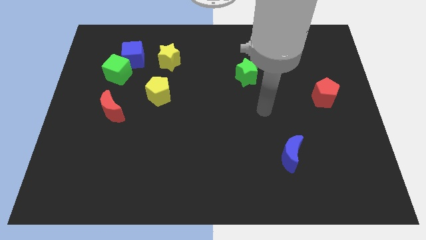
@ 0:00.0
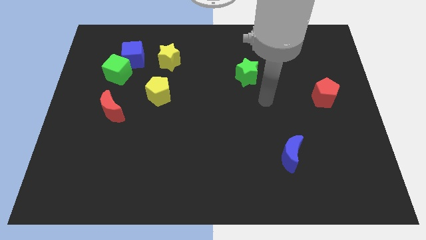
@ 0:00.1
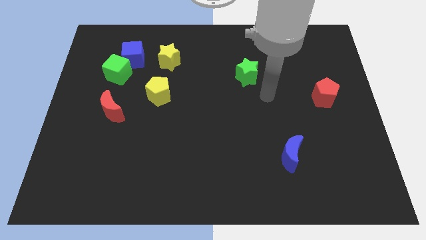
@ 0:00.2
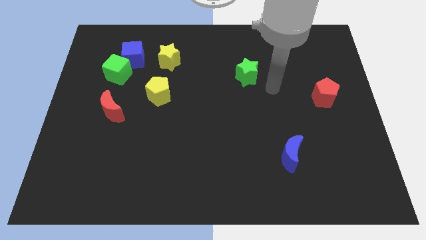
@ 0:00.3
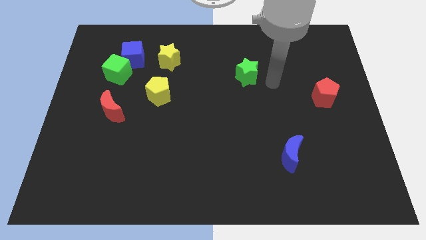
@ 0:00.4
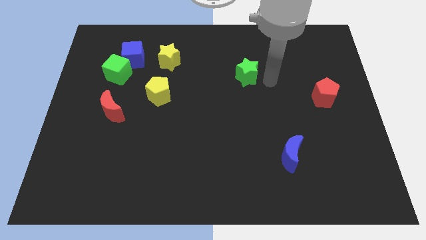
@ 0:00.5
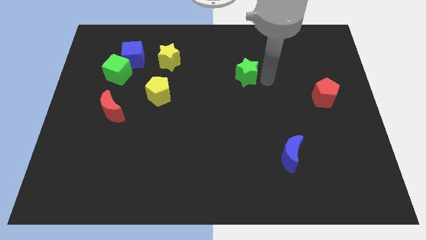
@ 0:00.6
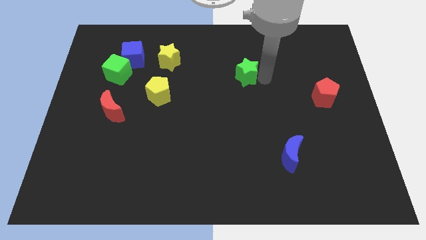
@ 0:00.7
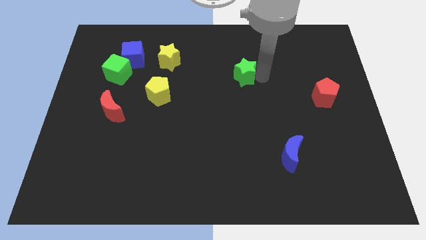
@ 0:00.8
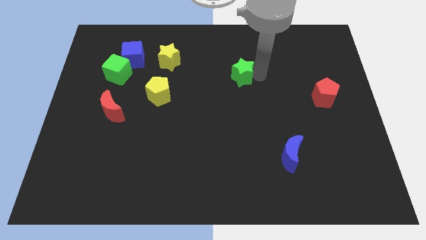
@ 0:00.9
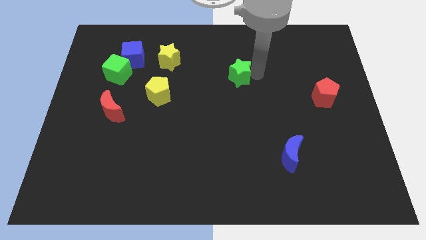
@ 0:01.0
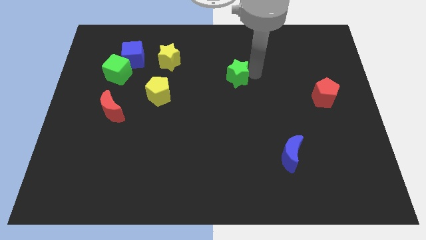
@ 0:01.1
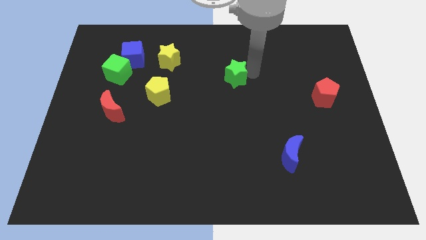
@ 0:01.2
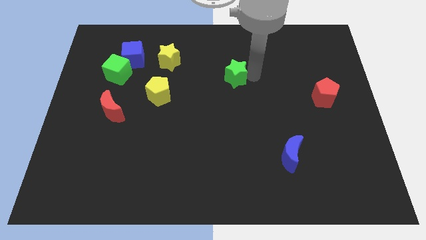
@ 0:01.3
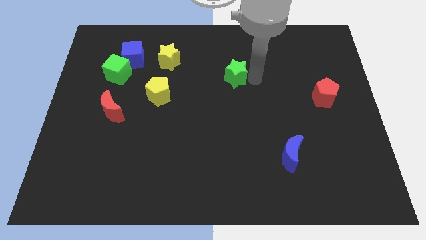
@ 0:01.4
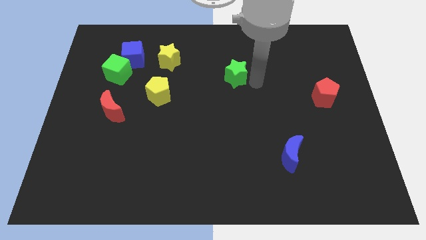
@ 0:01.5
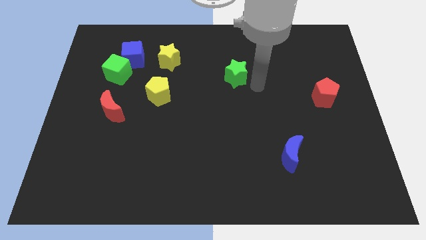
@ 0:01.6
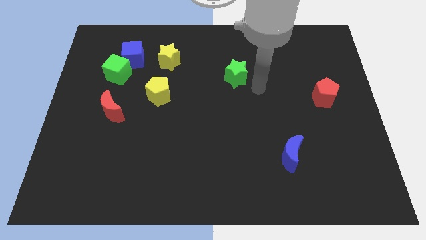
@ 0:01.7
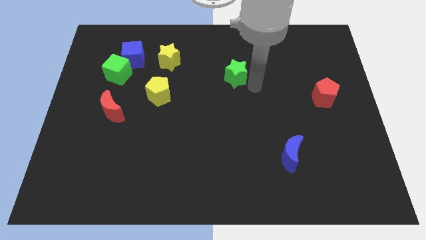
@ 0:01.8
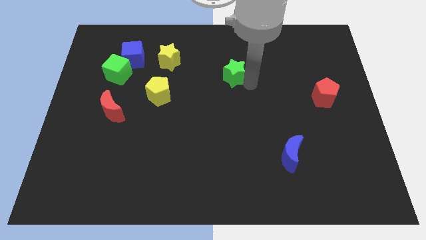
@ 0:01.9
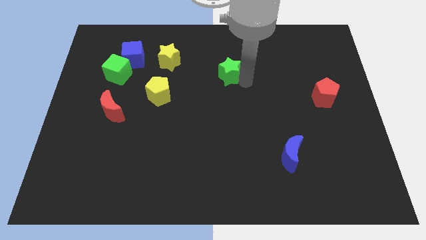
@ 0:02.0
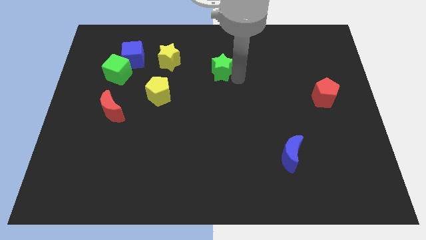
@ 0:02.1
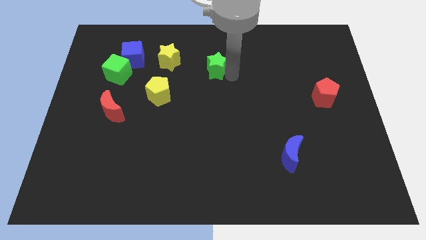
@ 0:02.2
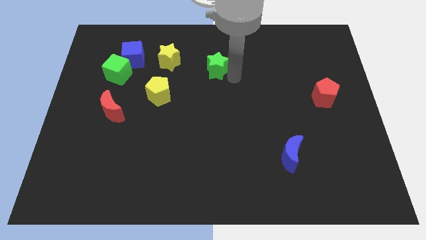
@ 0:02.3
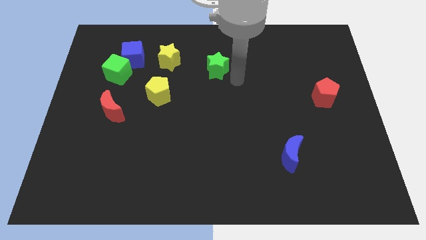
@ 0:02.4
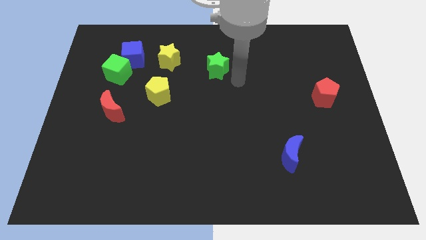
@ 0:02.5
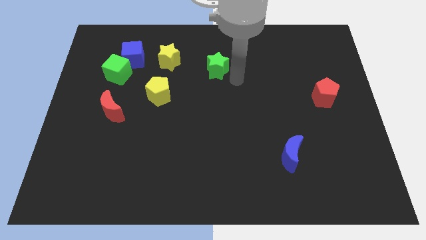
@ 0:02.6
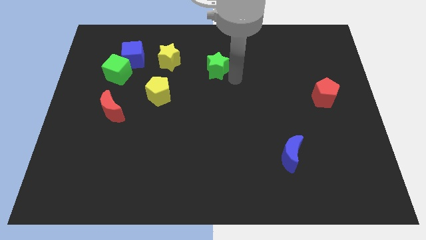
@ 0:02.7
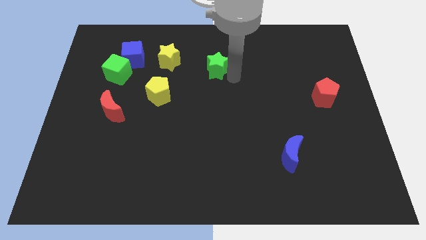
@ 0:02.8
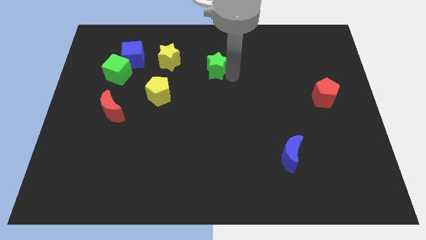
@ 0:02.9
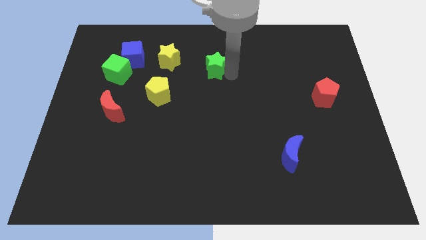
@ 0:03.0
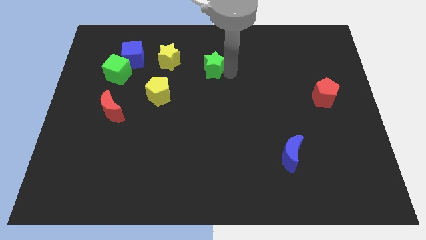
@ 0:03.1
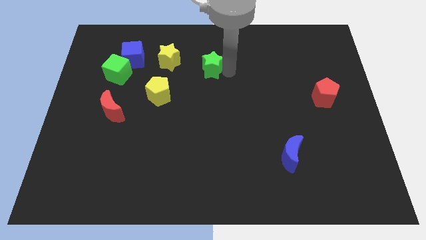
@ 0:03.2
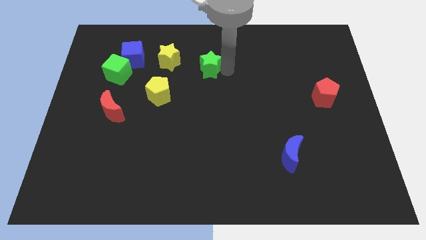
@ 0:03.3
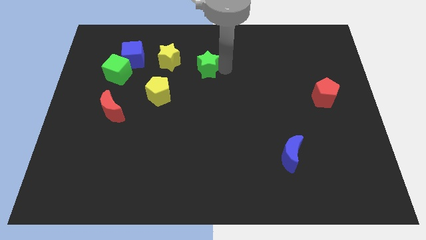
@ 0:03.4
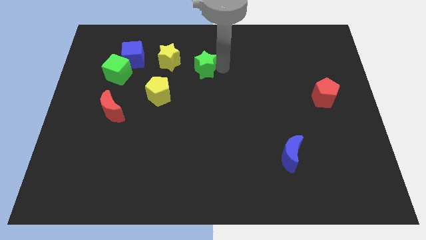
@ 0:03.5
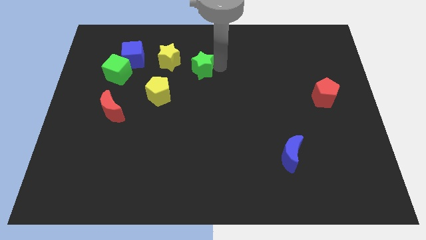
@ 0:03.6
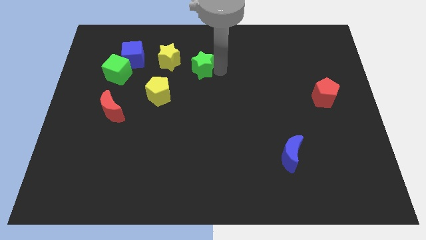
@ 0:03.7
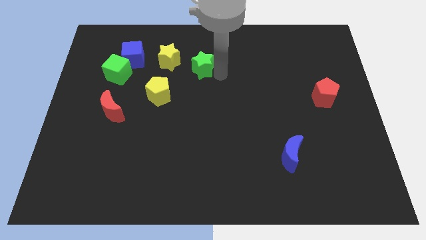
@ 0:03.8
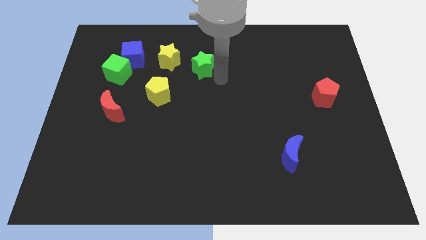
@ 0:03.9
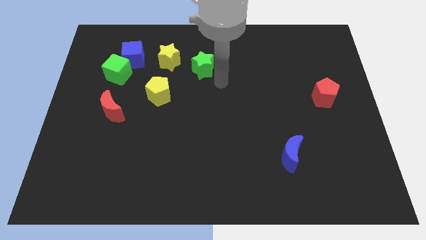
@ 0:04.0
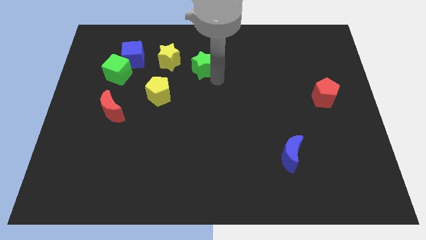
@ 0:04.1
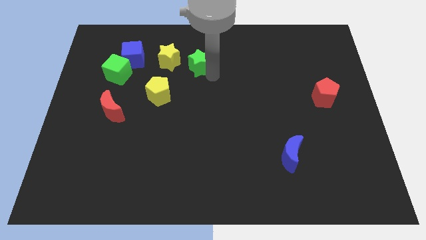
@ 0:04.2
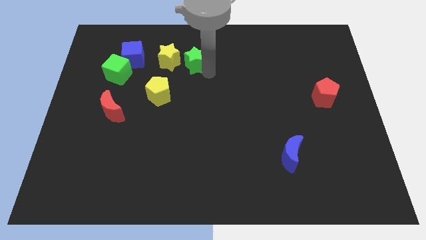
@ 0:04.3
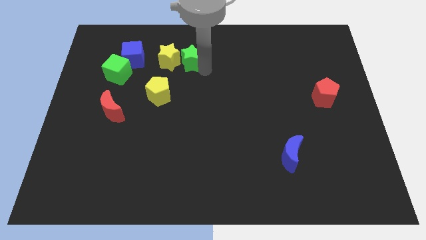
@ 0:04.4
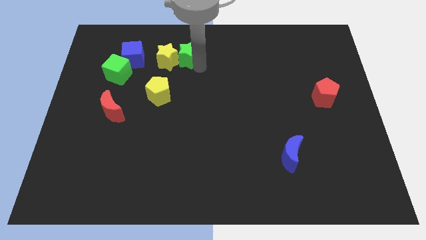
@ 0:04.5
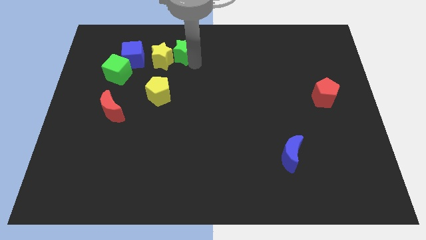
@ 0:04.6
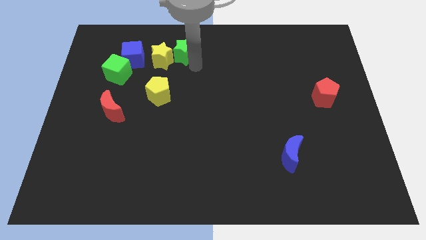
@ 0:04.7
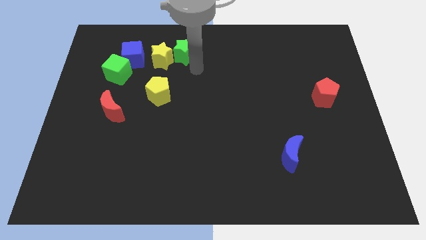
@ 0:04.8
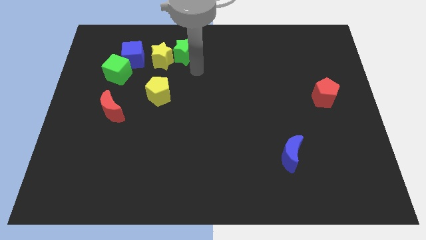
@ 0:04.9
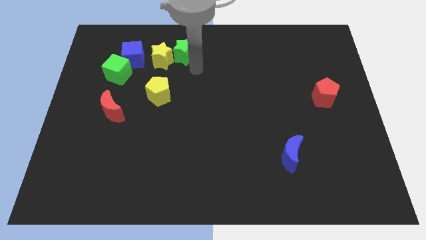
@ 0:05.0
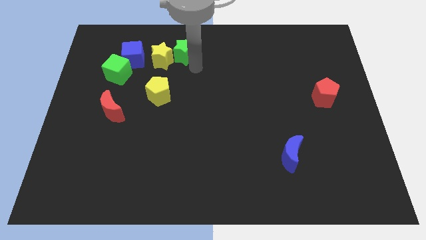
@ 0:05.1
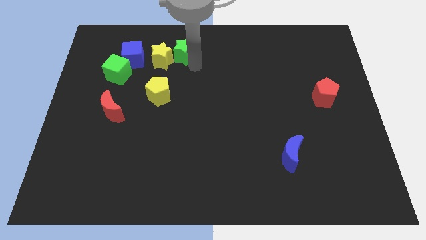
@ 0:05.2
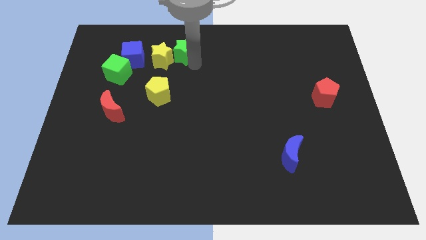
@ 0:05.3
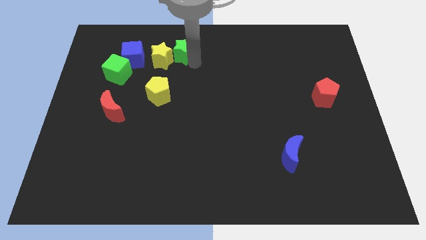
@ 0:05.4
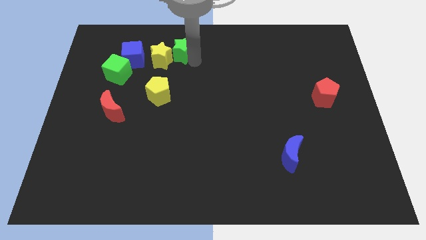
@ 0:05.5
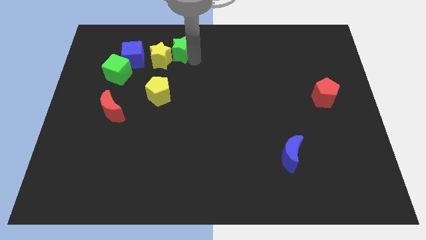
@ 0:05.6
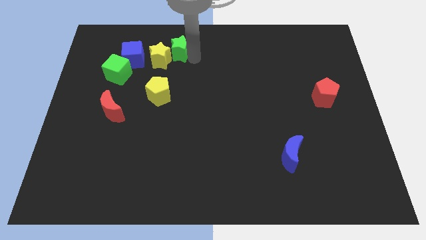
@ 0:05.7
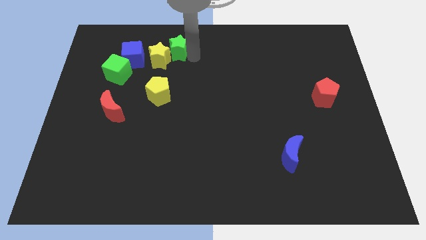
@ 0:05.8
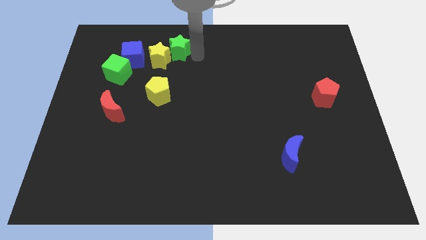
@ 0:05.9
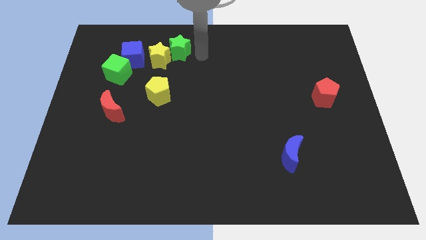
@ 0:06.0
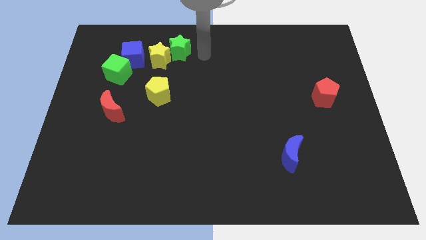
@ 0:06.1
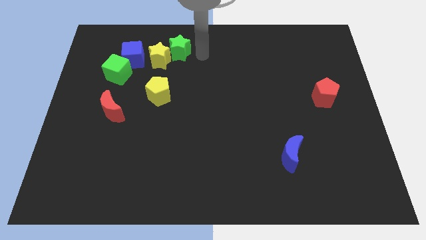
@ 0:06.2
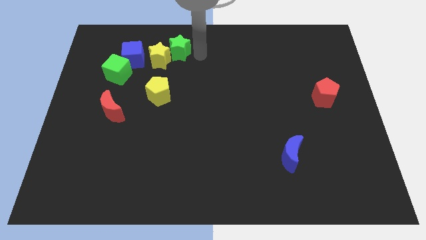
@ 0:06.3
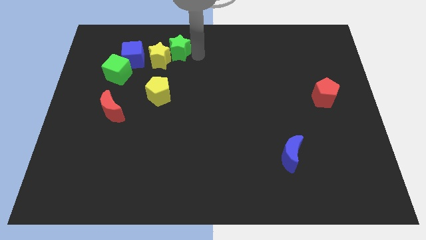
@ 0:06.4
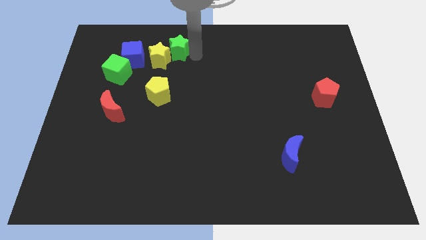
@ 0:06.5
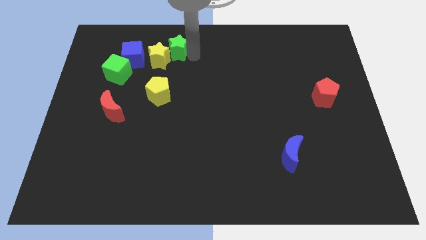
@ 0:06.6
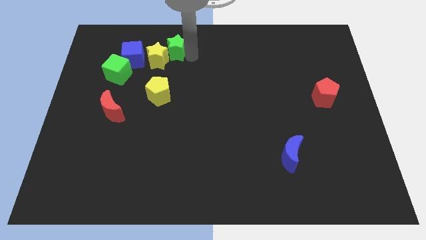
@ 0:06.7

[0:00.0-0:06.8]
put the green star to the top of the yellow pentagon

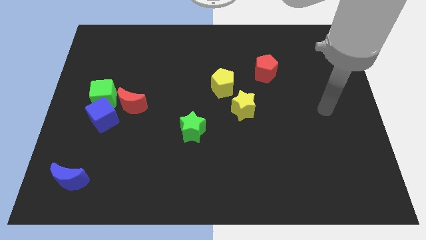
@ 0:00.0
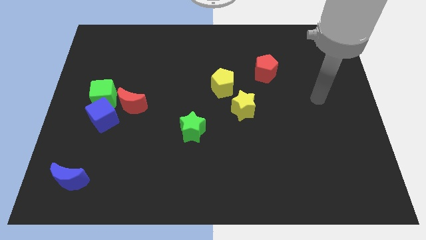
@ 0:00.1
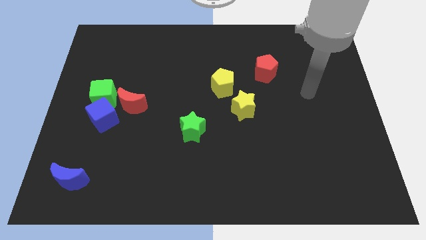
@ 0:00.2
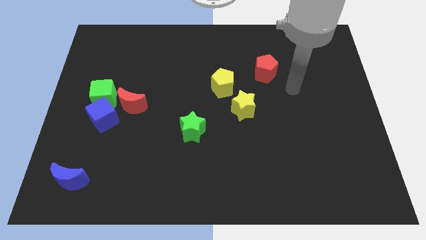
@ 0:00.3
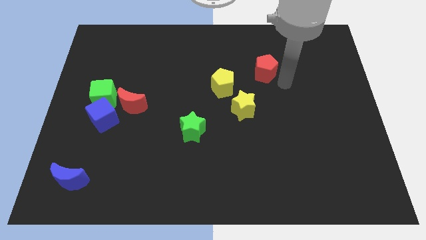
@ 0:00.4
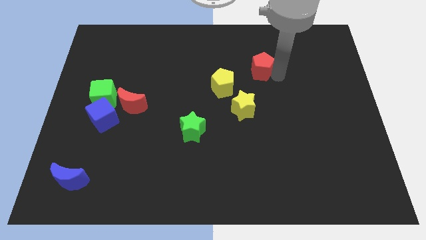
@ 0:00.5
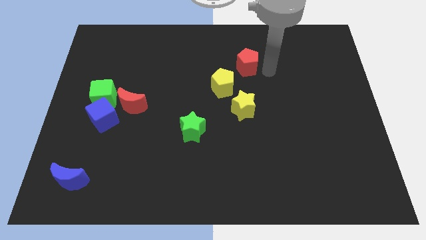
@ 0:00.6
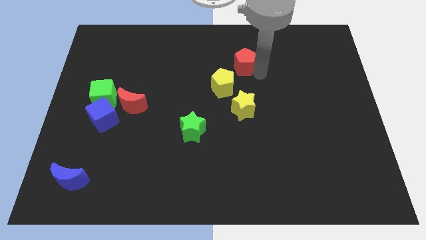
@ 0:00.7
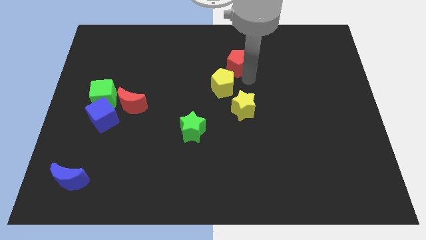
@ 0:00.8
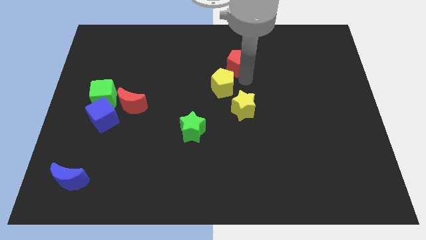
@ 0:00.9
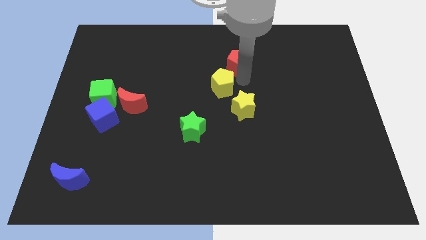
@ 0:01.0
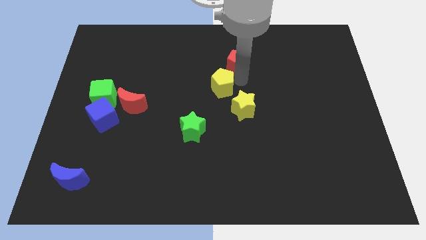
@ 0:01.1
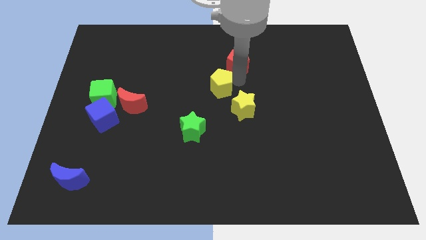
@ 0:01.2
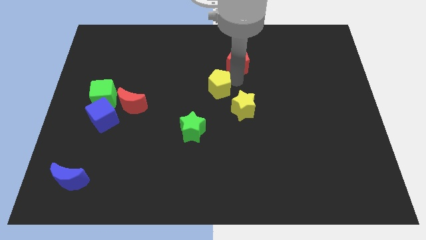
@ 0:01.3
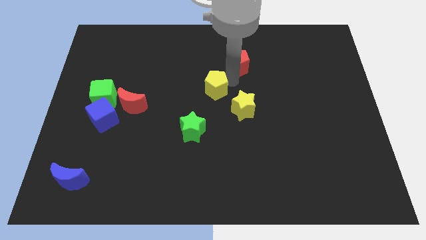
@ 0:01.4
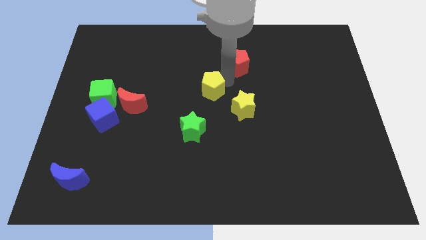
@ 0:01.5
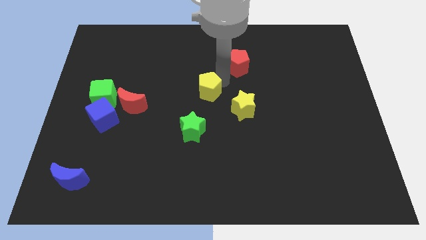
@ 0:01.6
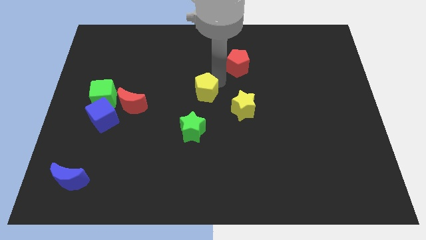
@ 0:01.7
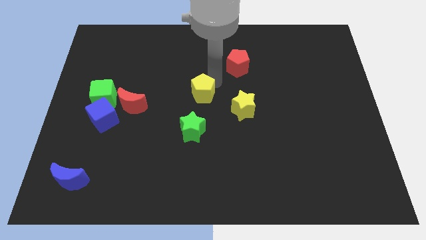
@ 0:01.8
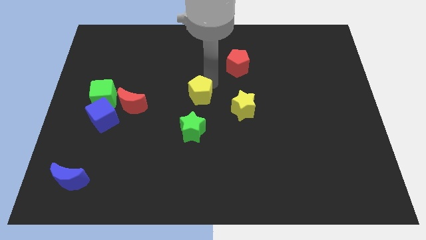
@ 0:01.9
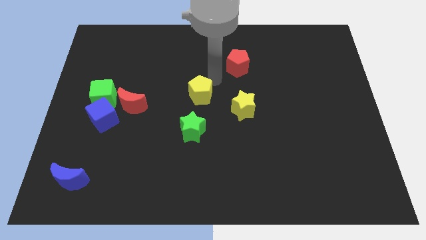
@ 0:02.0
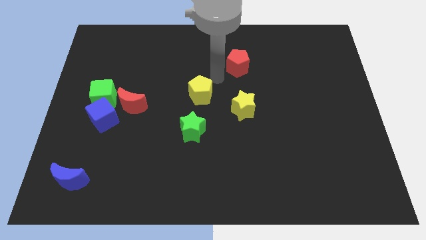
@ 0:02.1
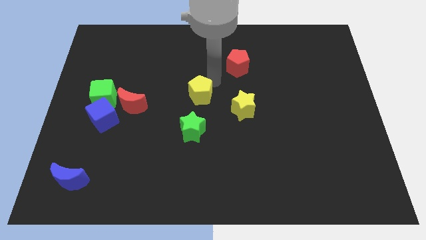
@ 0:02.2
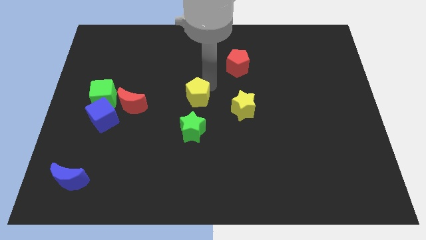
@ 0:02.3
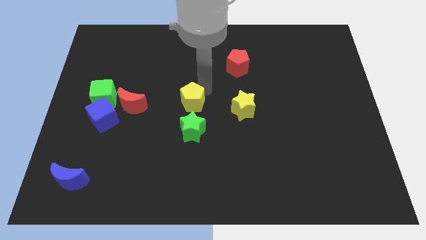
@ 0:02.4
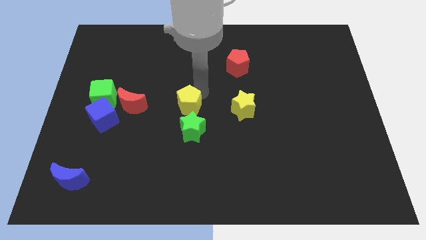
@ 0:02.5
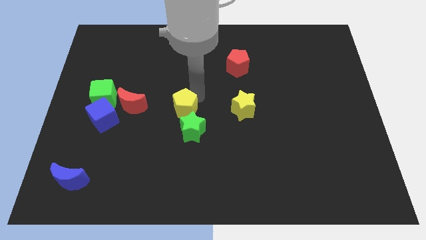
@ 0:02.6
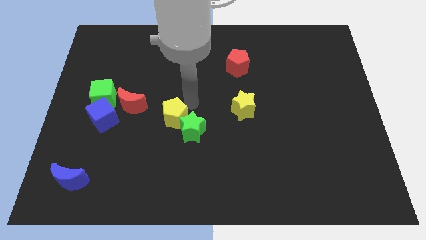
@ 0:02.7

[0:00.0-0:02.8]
push the yellow pentagon to the left of the green star
